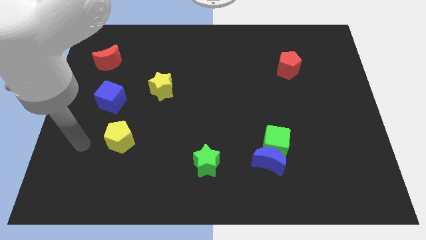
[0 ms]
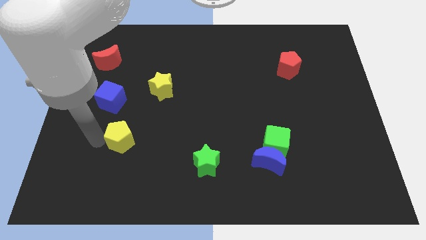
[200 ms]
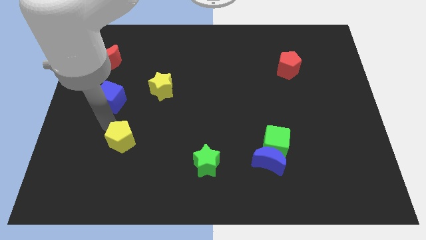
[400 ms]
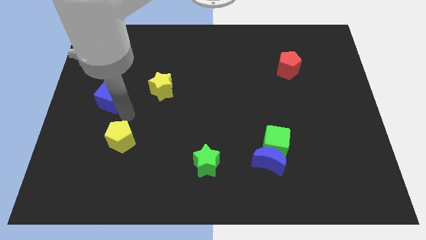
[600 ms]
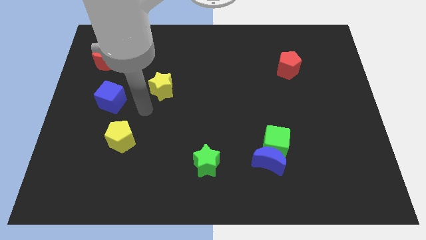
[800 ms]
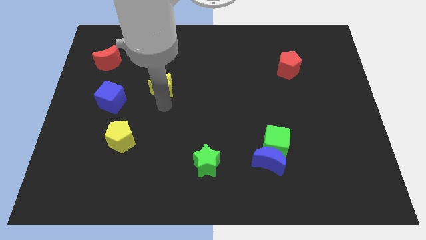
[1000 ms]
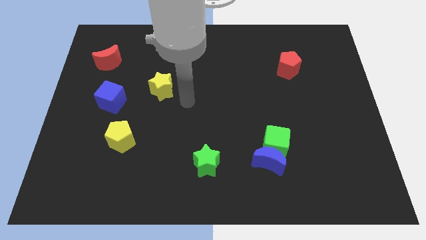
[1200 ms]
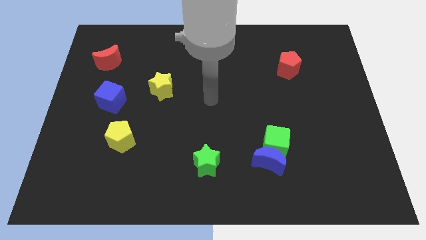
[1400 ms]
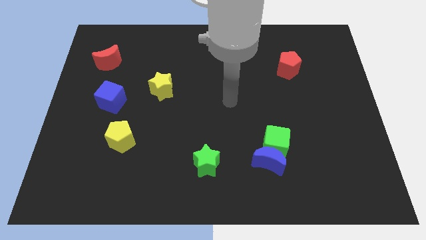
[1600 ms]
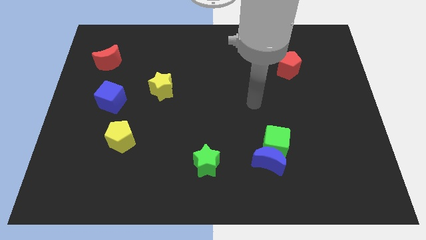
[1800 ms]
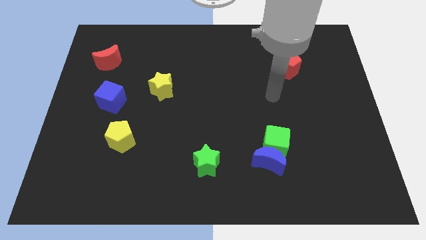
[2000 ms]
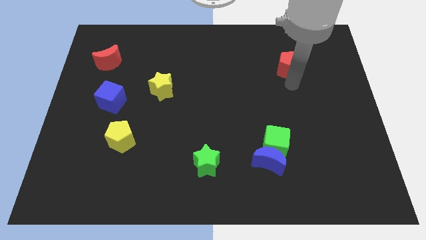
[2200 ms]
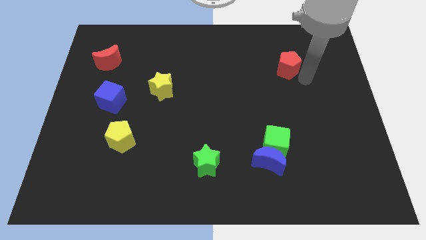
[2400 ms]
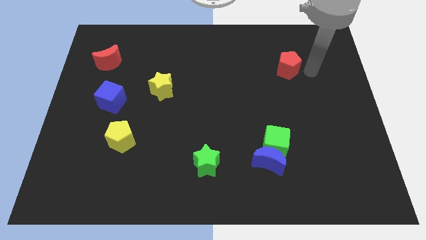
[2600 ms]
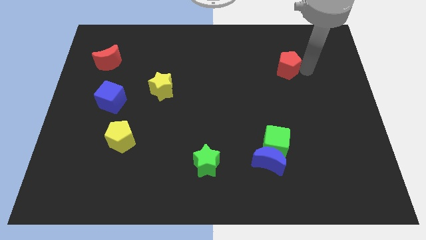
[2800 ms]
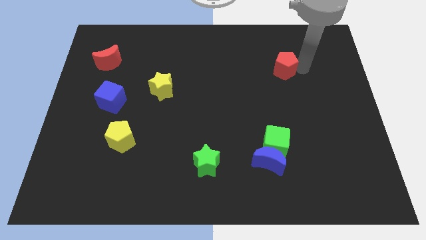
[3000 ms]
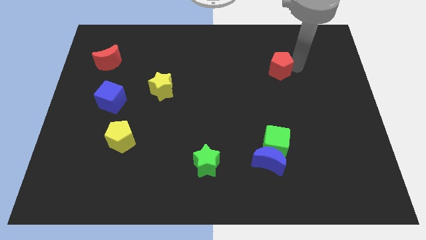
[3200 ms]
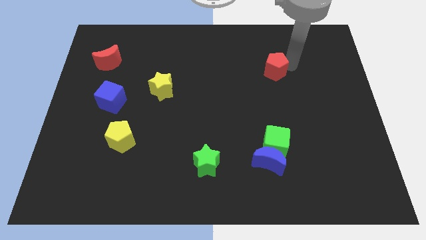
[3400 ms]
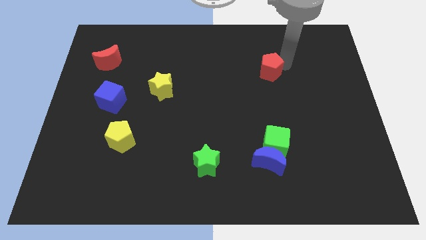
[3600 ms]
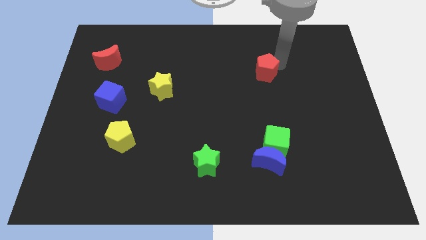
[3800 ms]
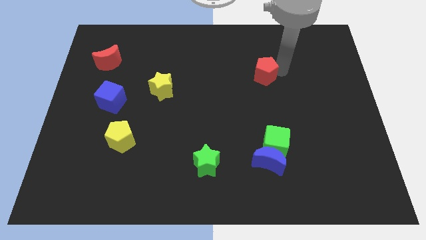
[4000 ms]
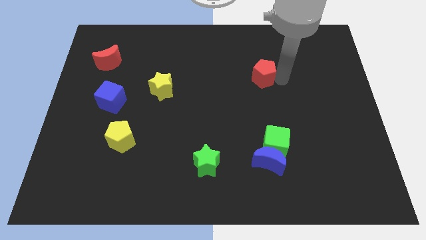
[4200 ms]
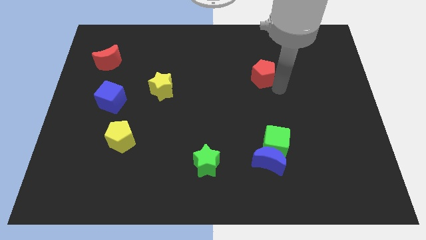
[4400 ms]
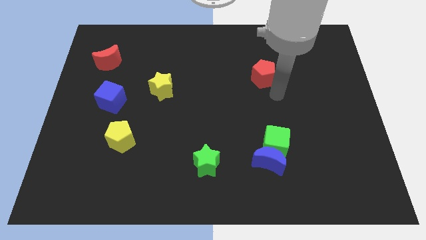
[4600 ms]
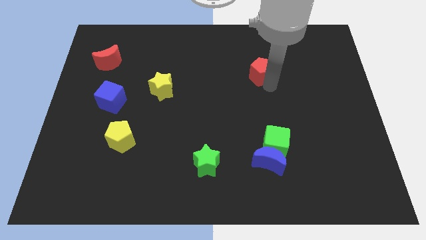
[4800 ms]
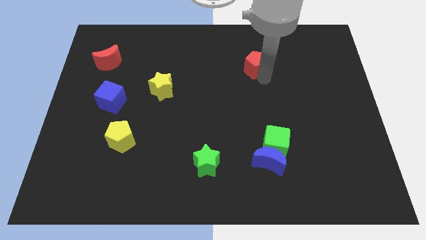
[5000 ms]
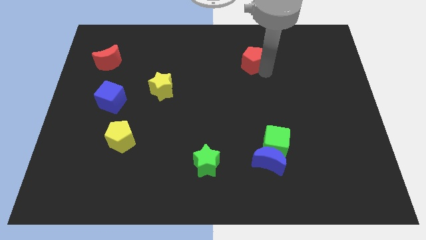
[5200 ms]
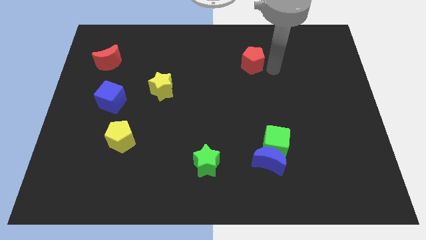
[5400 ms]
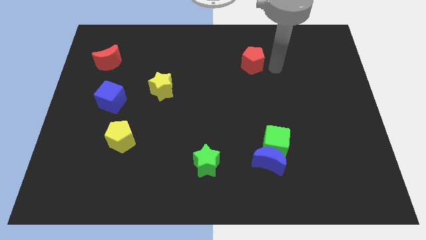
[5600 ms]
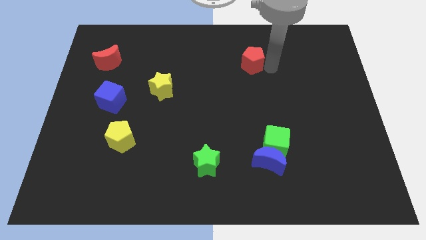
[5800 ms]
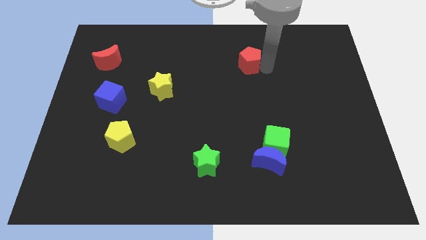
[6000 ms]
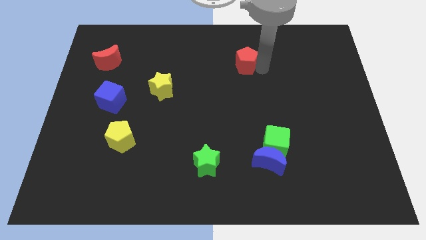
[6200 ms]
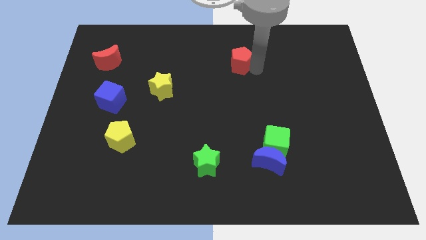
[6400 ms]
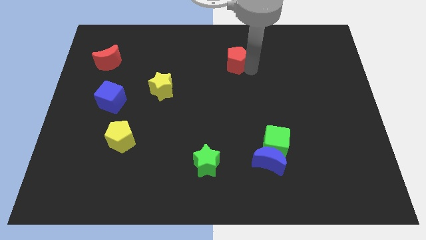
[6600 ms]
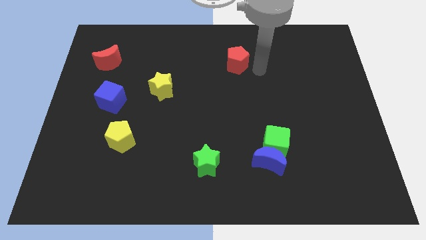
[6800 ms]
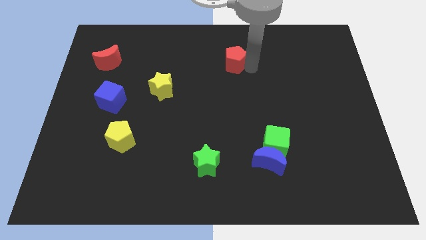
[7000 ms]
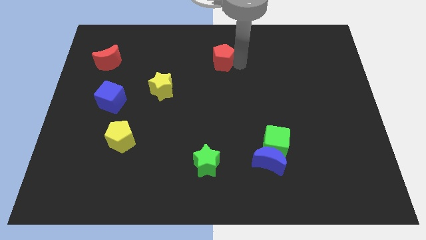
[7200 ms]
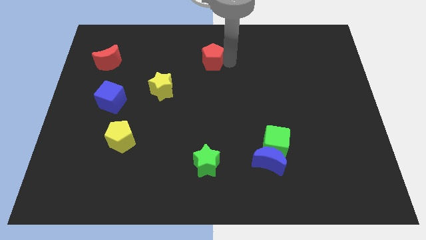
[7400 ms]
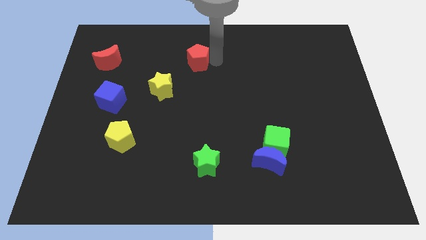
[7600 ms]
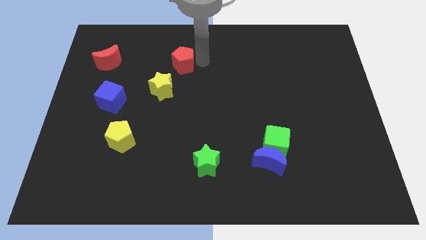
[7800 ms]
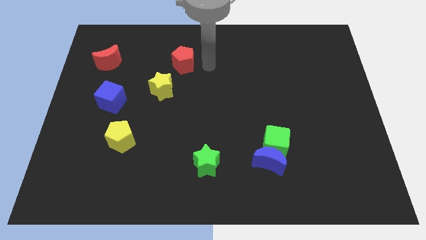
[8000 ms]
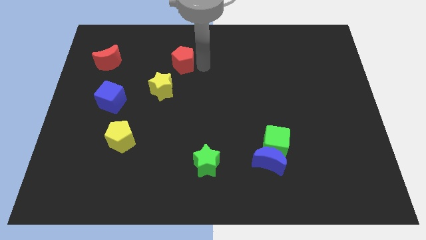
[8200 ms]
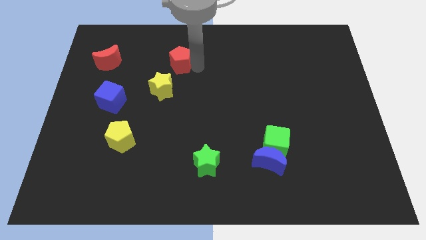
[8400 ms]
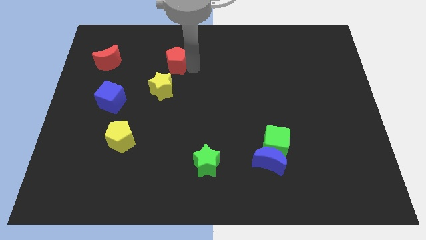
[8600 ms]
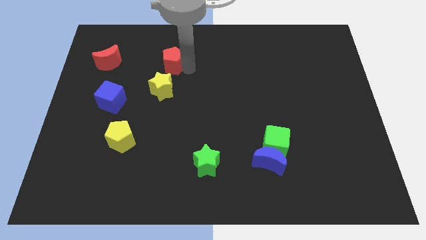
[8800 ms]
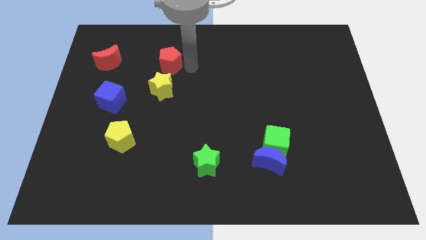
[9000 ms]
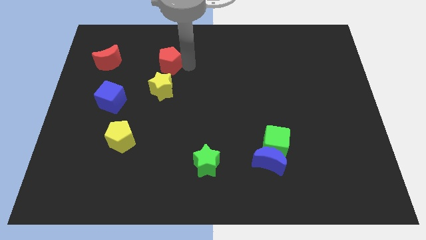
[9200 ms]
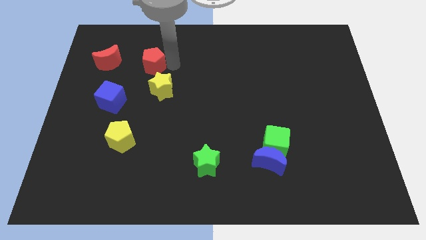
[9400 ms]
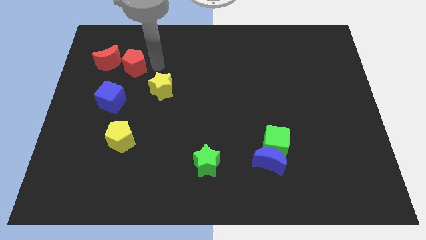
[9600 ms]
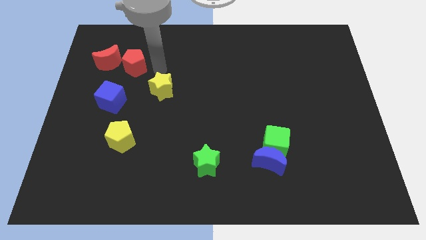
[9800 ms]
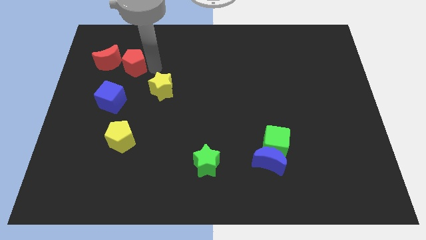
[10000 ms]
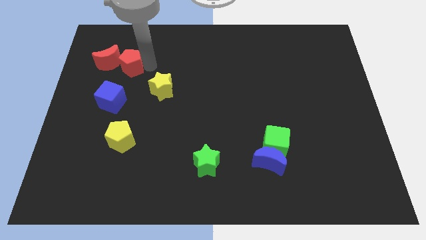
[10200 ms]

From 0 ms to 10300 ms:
slide the red pentagon to the red moon
